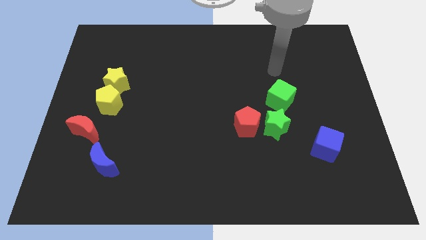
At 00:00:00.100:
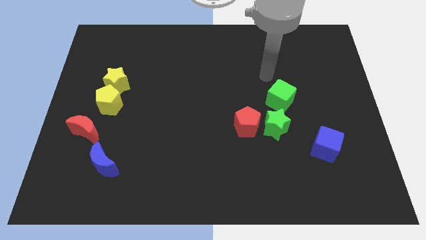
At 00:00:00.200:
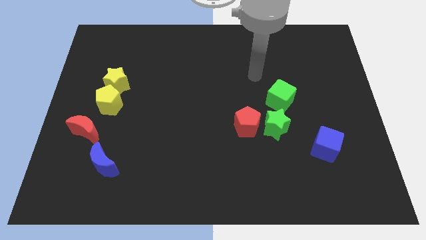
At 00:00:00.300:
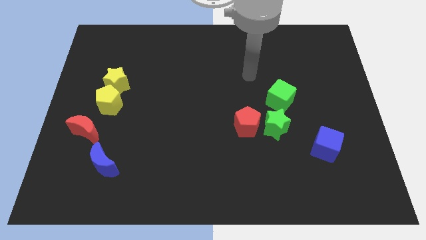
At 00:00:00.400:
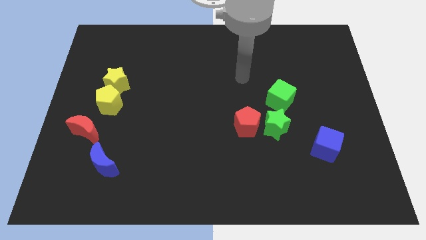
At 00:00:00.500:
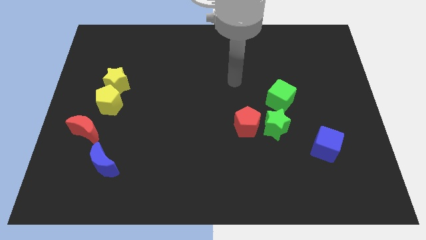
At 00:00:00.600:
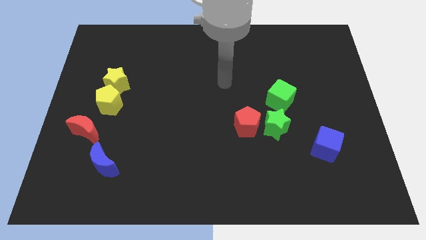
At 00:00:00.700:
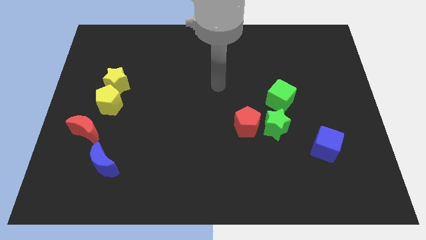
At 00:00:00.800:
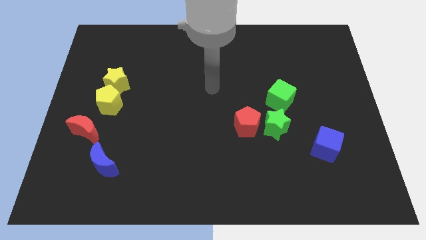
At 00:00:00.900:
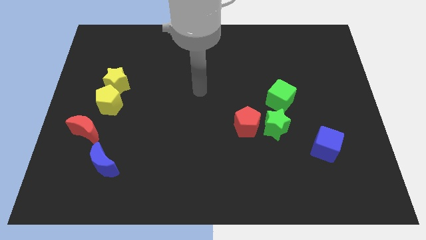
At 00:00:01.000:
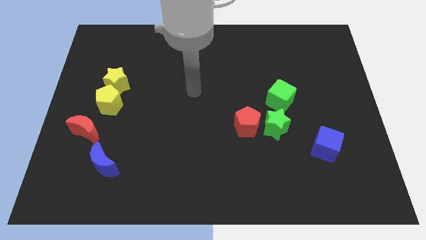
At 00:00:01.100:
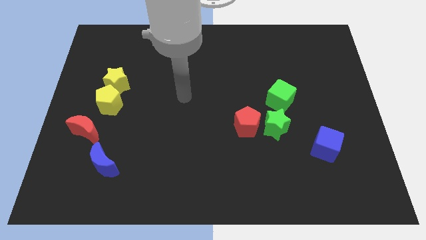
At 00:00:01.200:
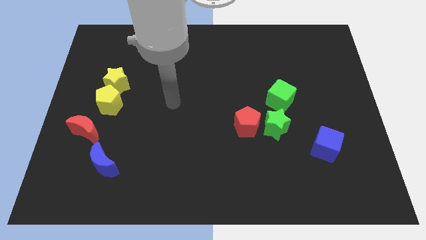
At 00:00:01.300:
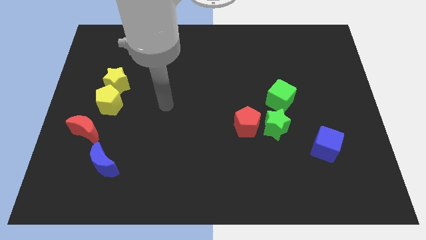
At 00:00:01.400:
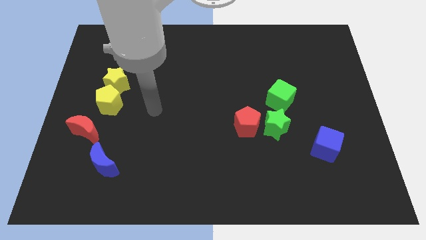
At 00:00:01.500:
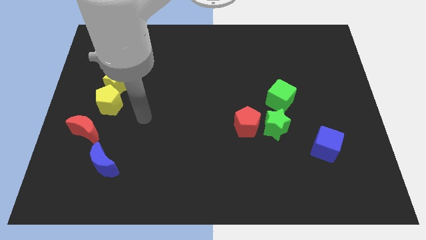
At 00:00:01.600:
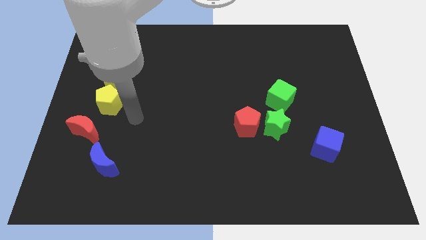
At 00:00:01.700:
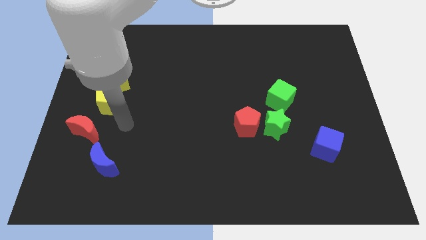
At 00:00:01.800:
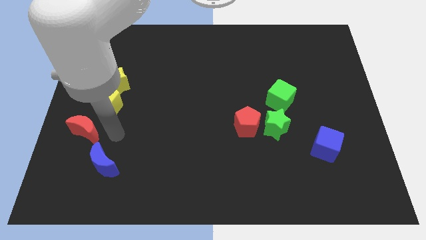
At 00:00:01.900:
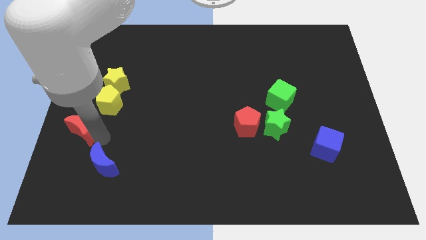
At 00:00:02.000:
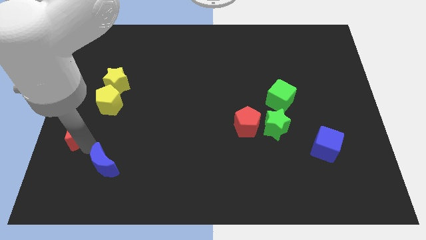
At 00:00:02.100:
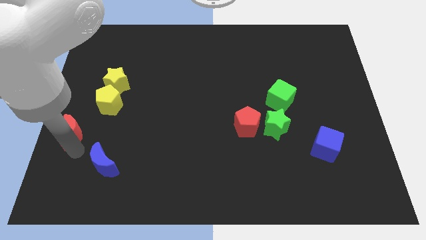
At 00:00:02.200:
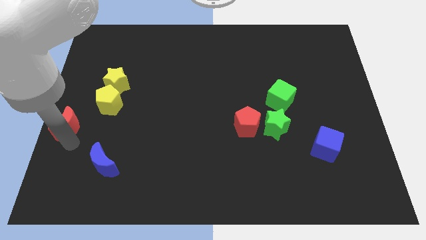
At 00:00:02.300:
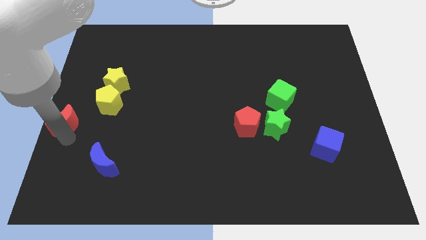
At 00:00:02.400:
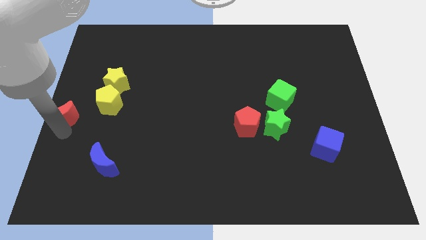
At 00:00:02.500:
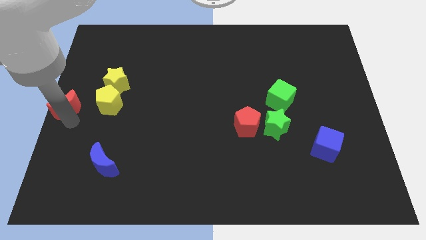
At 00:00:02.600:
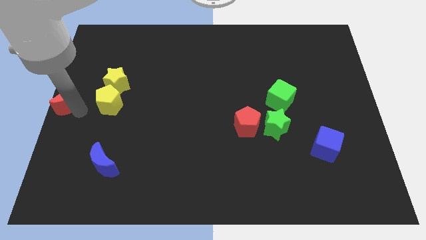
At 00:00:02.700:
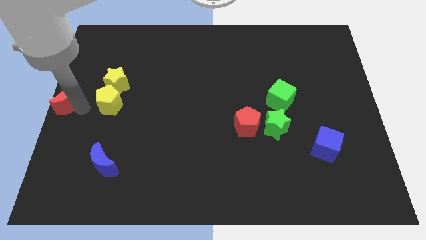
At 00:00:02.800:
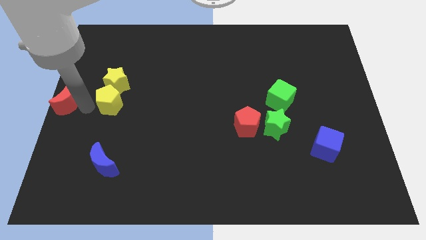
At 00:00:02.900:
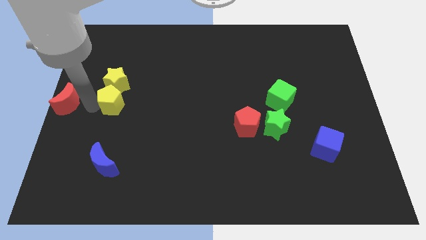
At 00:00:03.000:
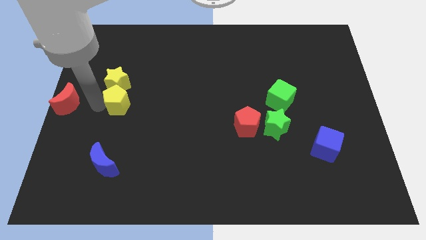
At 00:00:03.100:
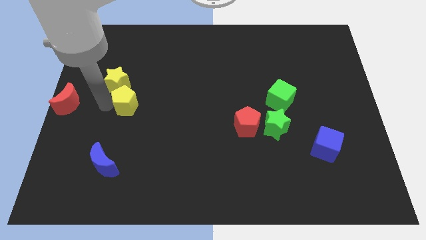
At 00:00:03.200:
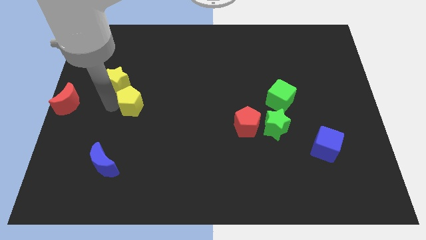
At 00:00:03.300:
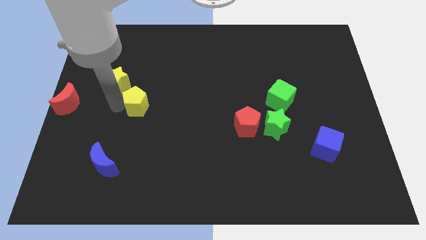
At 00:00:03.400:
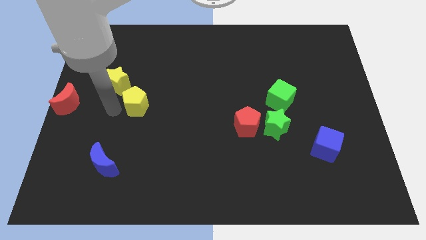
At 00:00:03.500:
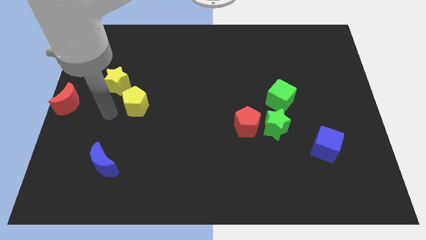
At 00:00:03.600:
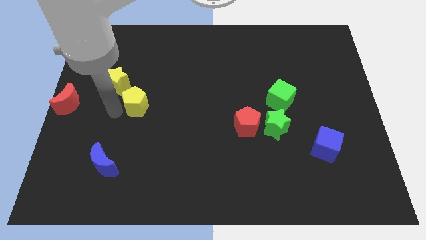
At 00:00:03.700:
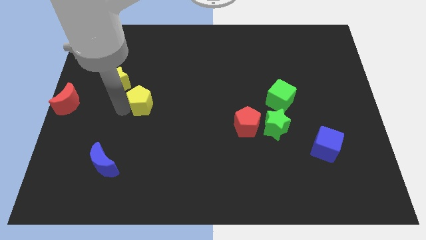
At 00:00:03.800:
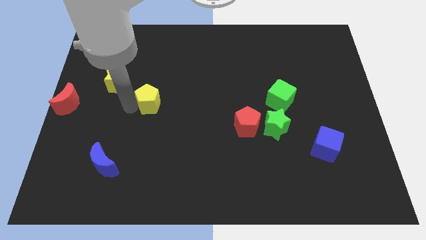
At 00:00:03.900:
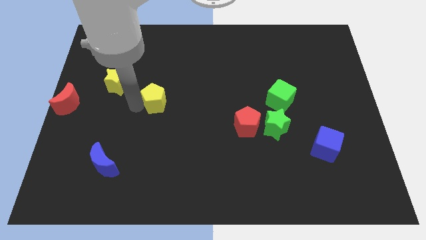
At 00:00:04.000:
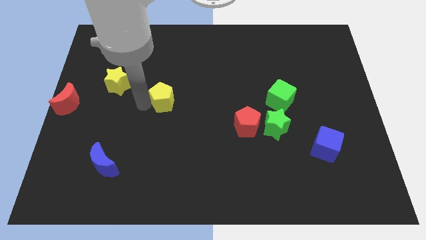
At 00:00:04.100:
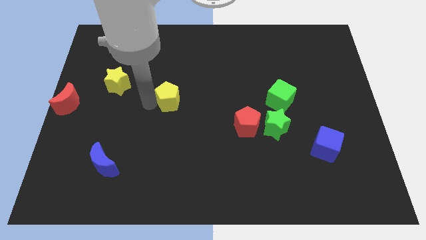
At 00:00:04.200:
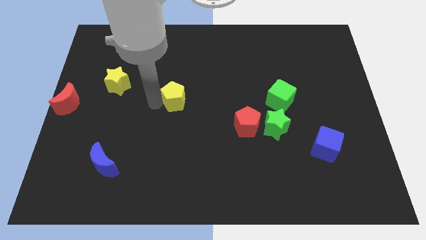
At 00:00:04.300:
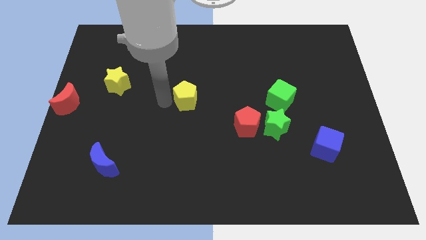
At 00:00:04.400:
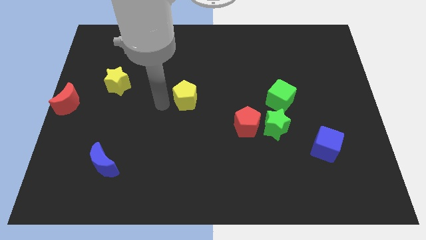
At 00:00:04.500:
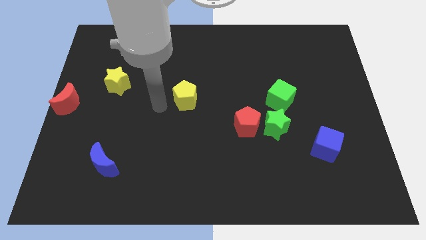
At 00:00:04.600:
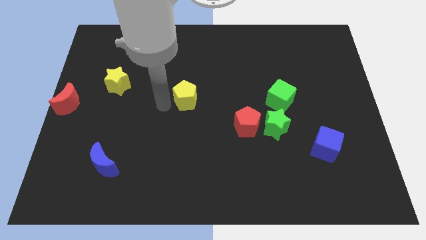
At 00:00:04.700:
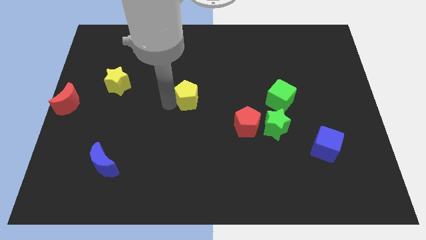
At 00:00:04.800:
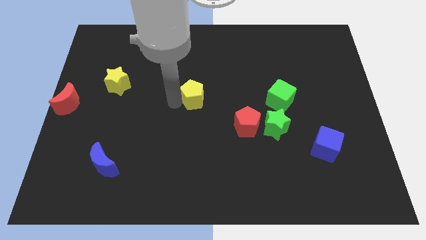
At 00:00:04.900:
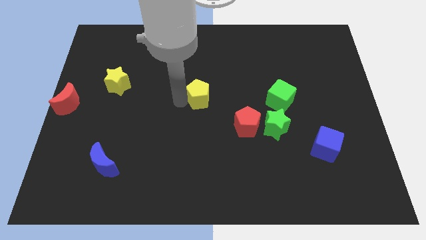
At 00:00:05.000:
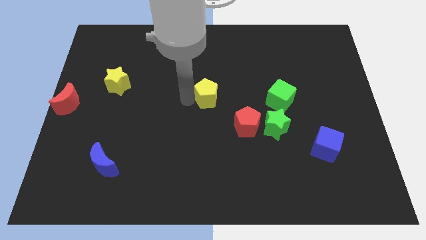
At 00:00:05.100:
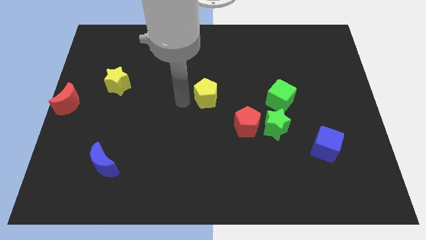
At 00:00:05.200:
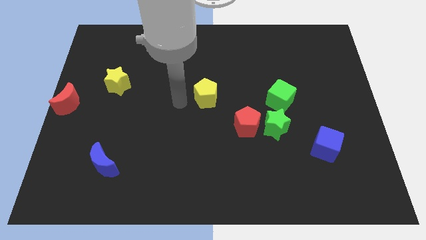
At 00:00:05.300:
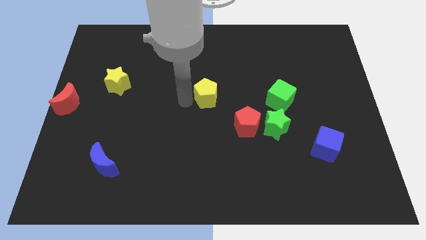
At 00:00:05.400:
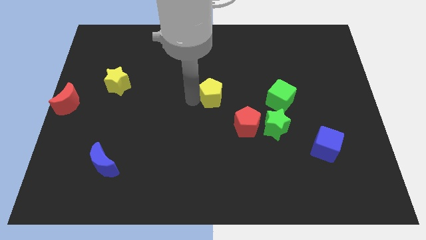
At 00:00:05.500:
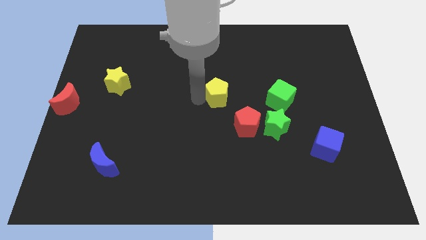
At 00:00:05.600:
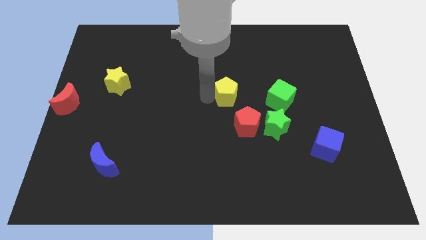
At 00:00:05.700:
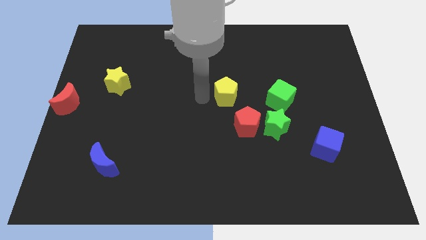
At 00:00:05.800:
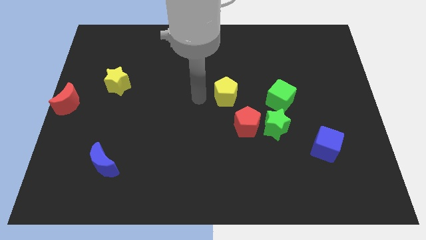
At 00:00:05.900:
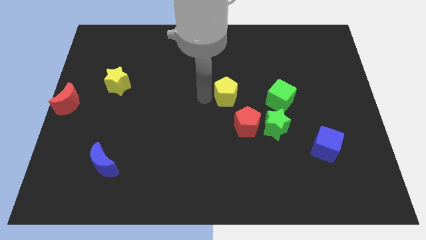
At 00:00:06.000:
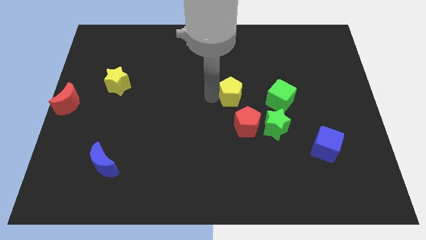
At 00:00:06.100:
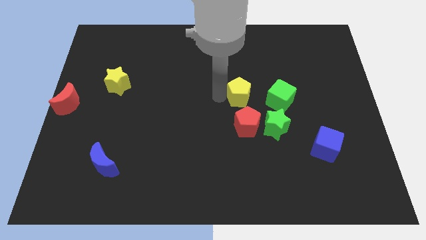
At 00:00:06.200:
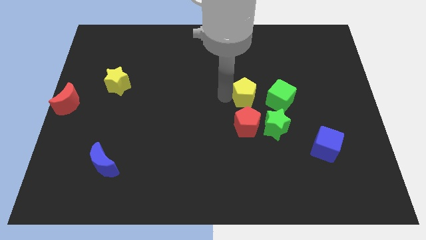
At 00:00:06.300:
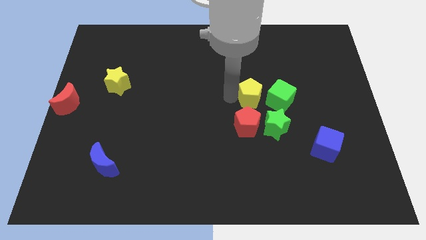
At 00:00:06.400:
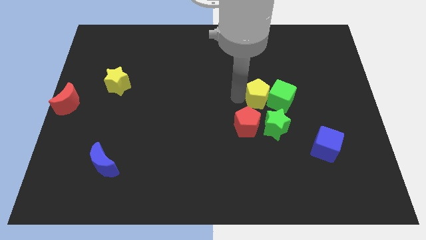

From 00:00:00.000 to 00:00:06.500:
push the yellow pentagon to the top side of the green star

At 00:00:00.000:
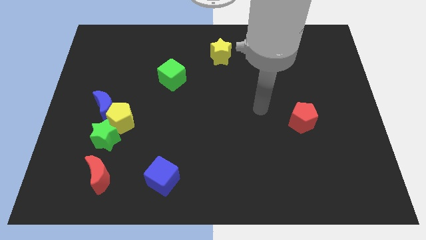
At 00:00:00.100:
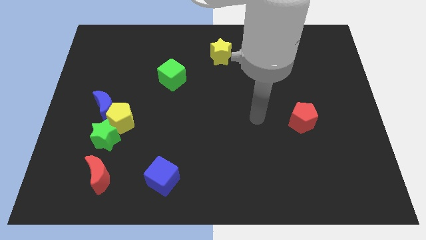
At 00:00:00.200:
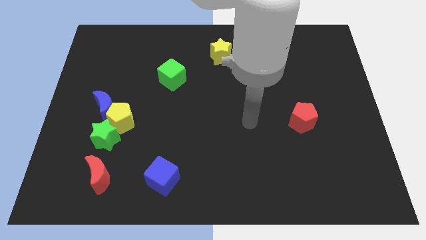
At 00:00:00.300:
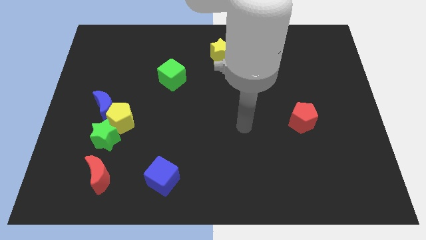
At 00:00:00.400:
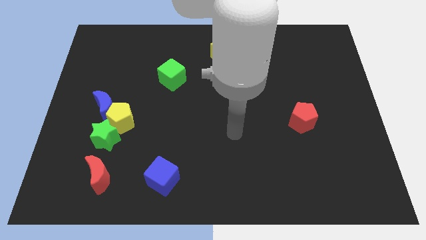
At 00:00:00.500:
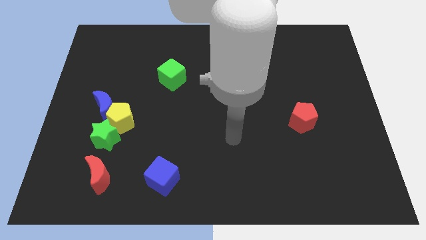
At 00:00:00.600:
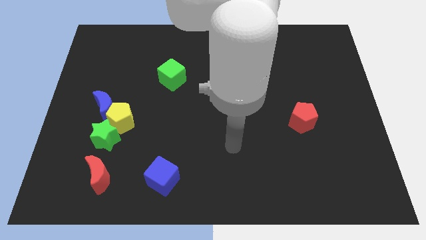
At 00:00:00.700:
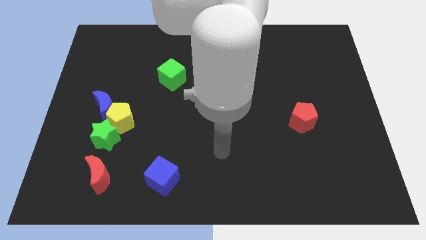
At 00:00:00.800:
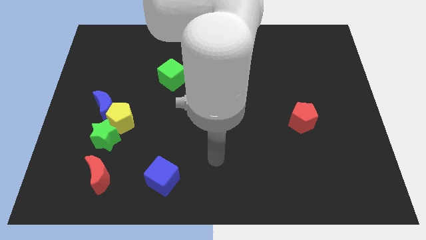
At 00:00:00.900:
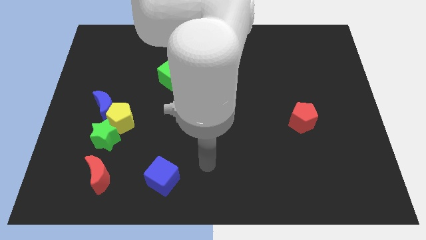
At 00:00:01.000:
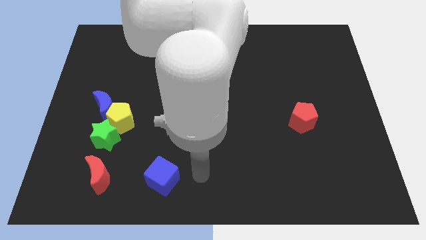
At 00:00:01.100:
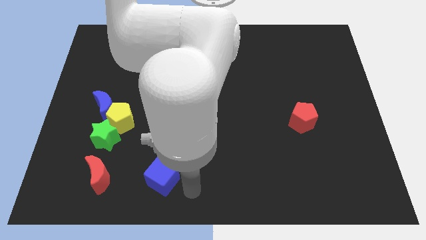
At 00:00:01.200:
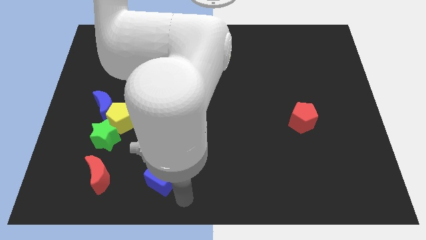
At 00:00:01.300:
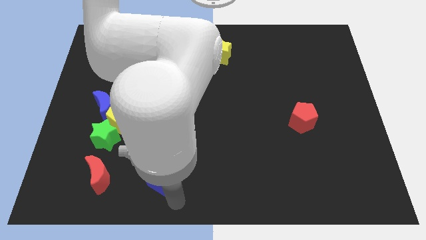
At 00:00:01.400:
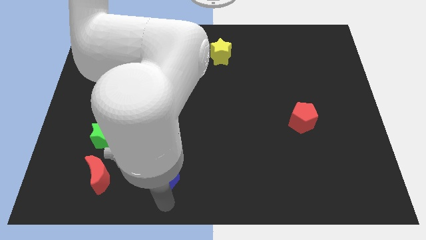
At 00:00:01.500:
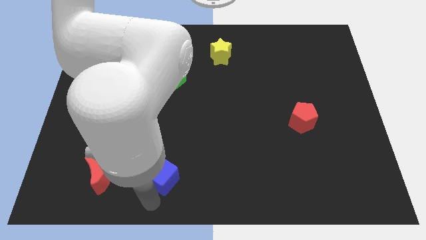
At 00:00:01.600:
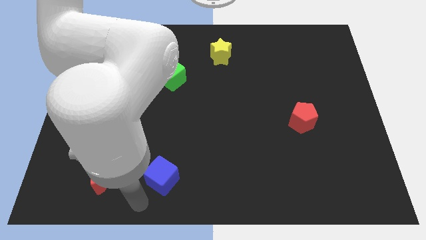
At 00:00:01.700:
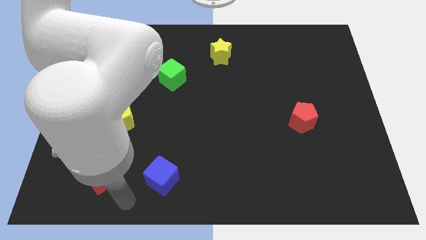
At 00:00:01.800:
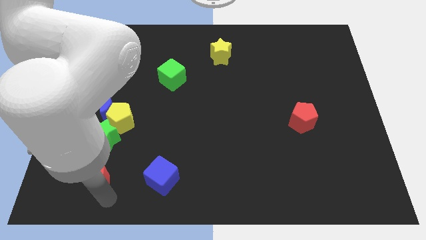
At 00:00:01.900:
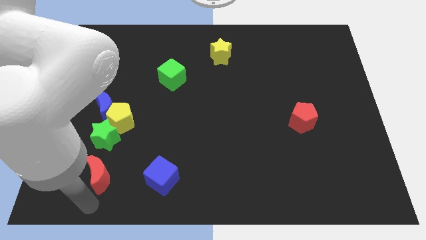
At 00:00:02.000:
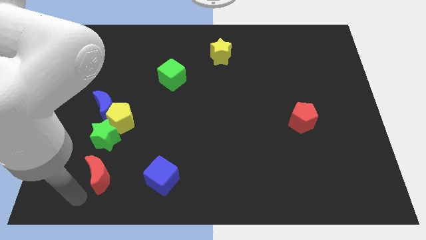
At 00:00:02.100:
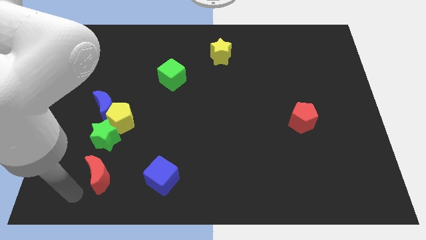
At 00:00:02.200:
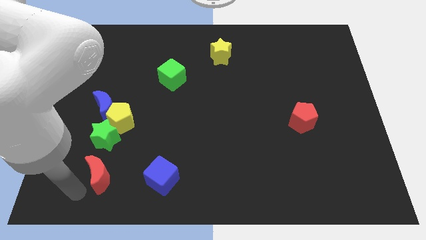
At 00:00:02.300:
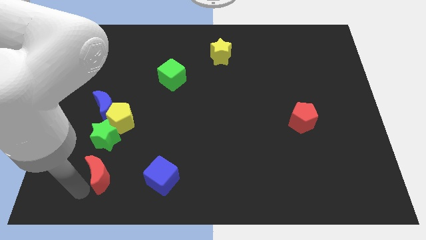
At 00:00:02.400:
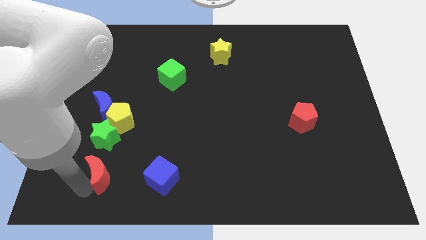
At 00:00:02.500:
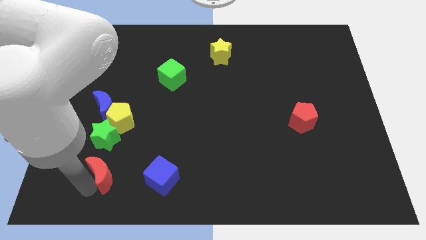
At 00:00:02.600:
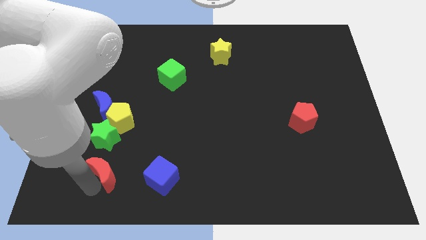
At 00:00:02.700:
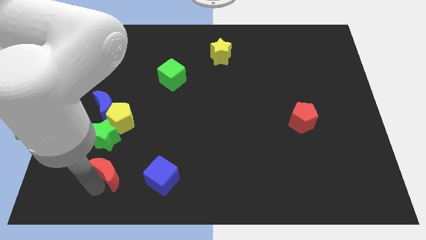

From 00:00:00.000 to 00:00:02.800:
push the red moon diagonally down and to the right of the green star
